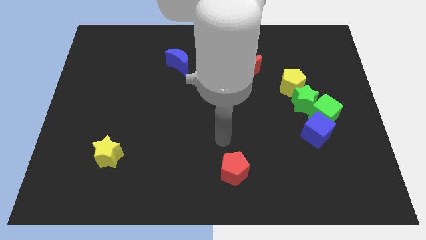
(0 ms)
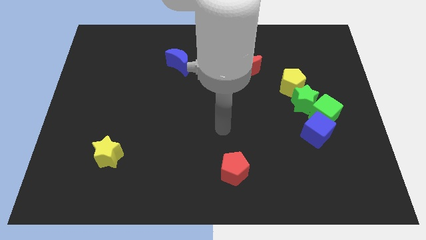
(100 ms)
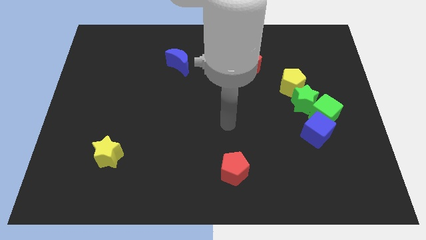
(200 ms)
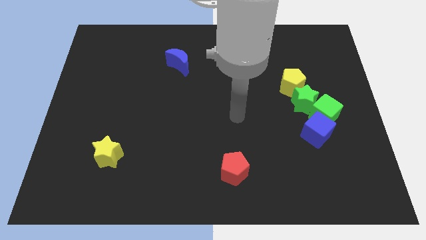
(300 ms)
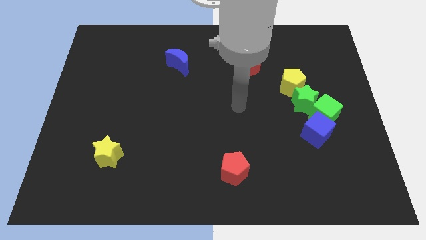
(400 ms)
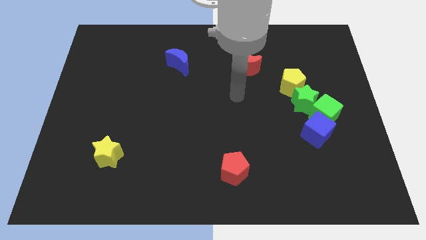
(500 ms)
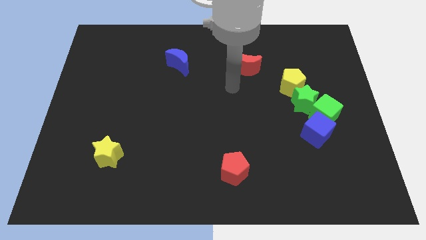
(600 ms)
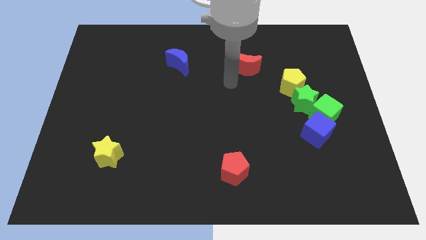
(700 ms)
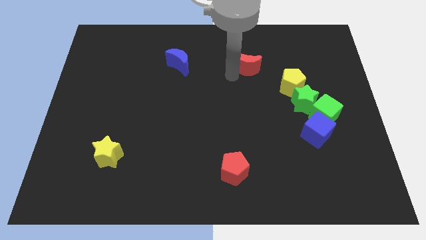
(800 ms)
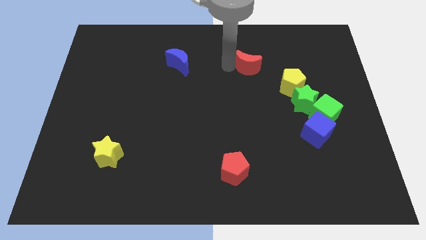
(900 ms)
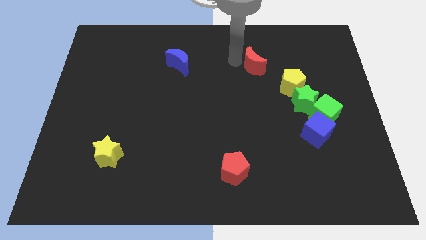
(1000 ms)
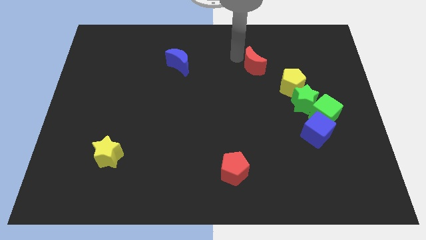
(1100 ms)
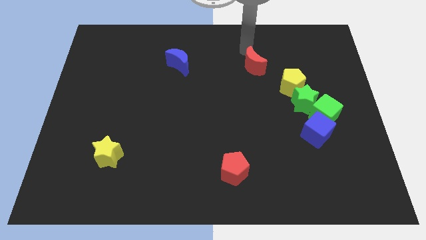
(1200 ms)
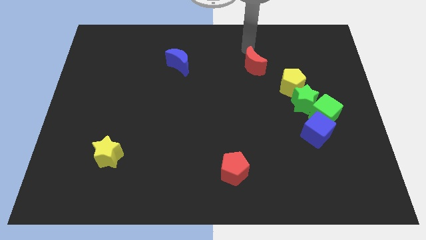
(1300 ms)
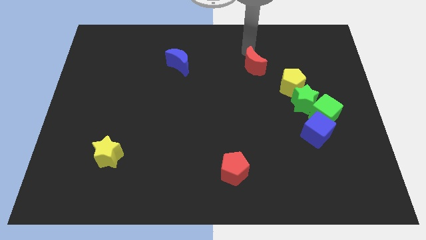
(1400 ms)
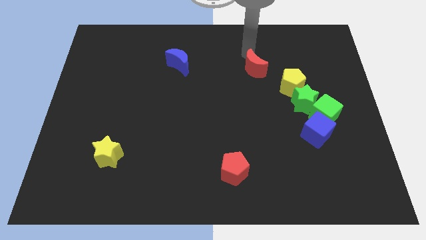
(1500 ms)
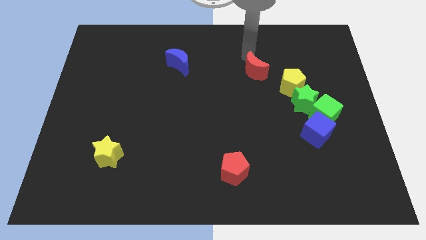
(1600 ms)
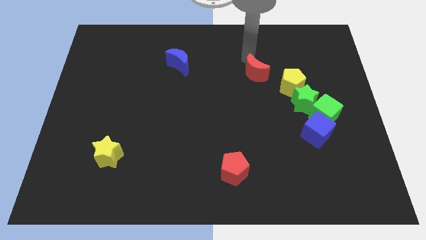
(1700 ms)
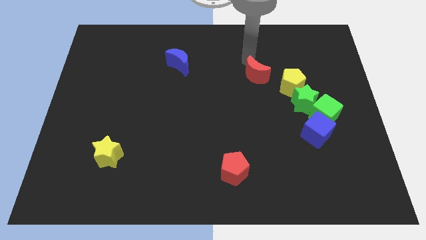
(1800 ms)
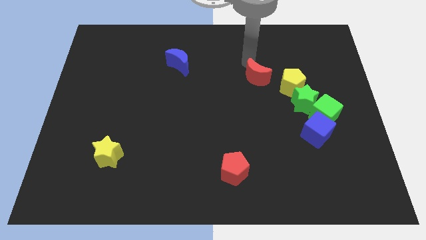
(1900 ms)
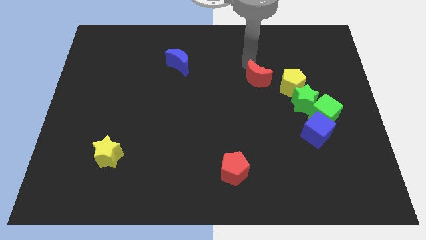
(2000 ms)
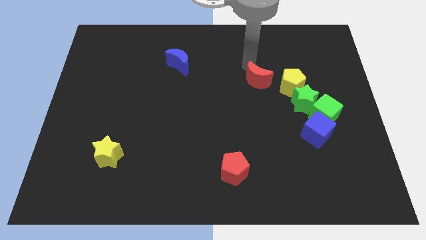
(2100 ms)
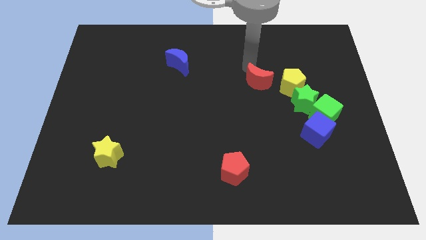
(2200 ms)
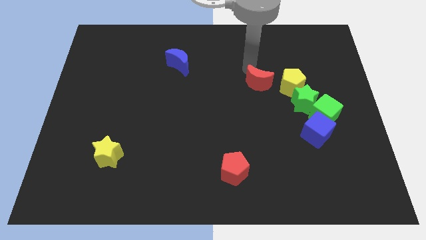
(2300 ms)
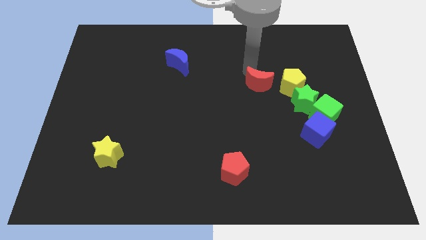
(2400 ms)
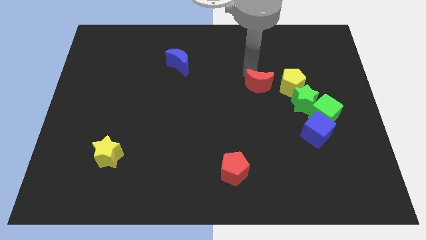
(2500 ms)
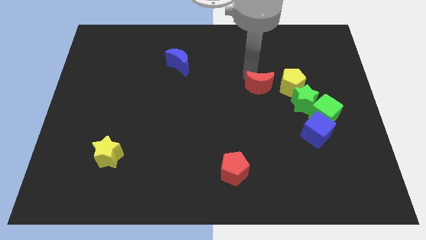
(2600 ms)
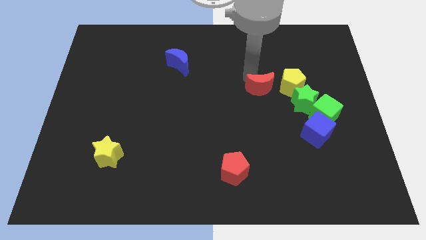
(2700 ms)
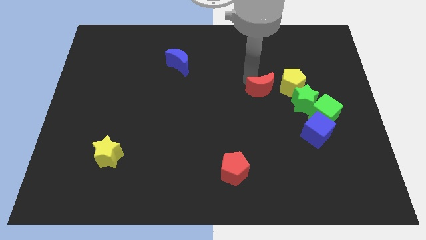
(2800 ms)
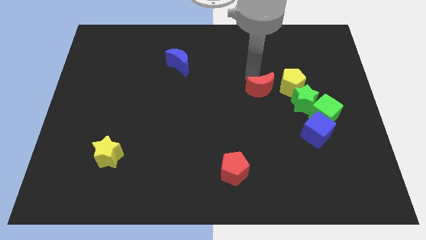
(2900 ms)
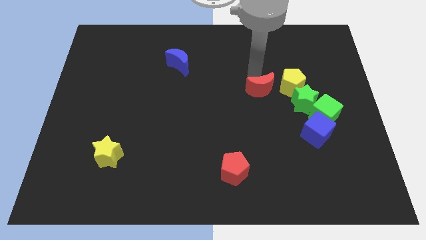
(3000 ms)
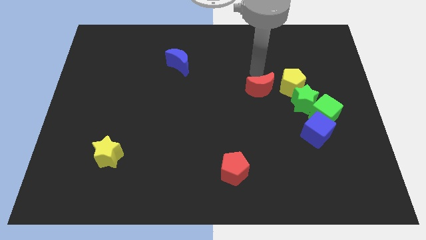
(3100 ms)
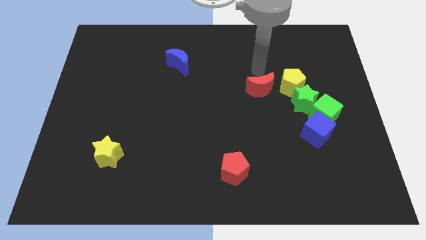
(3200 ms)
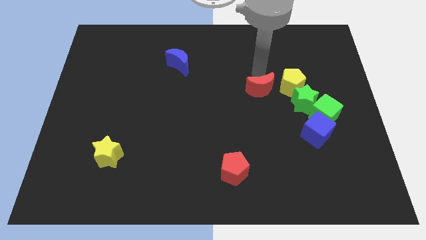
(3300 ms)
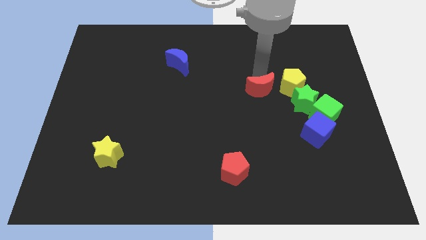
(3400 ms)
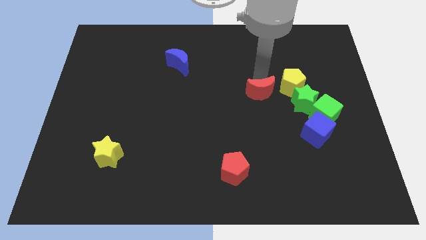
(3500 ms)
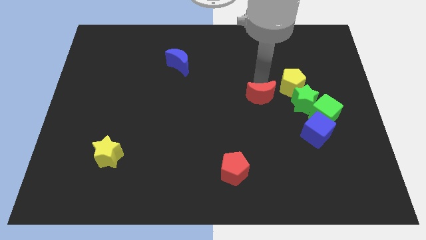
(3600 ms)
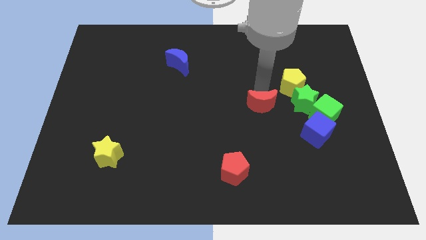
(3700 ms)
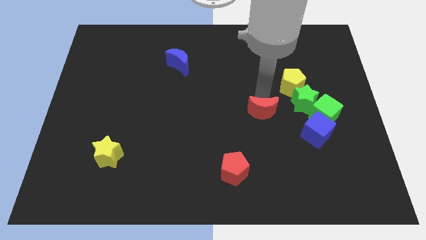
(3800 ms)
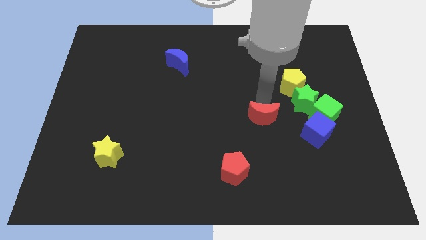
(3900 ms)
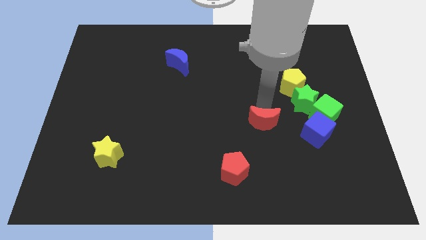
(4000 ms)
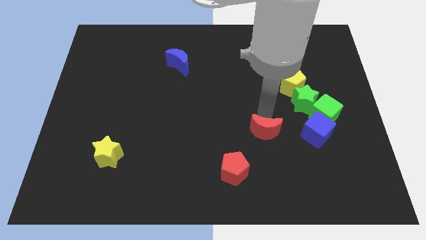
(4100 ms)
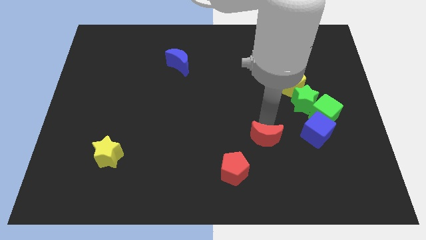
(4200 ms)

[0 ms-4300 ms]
slide the red moon downwards

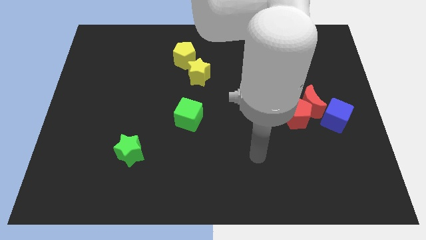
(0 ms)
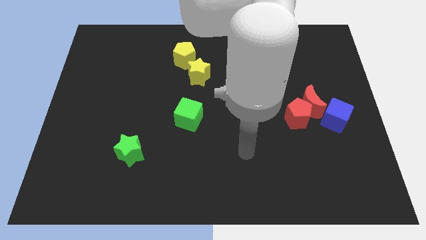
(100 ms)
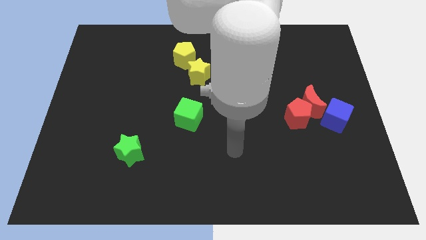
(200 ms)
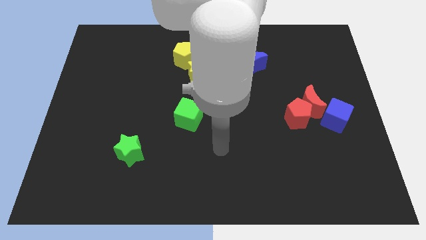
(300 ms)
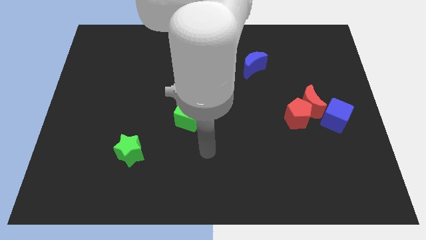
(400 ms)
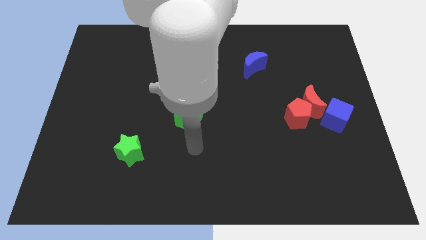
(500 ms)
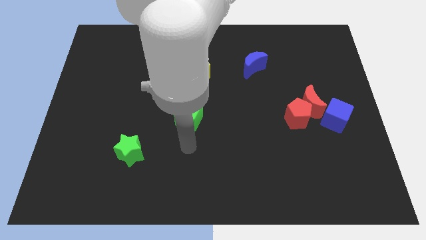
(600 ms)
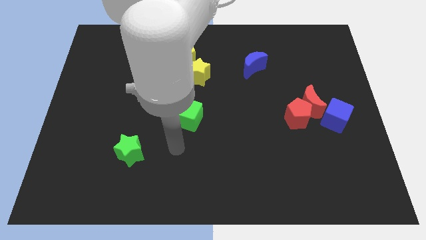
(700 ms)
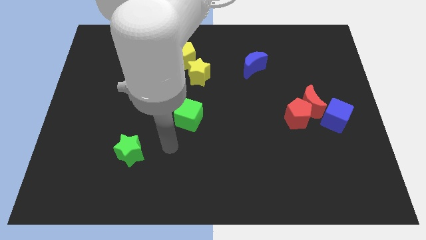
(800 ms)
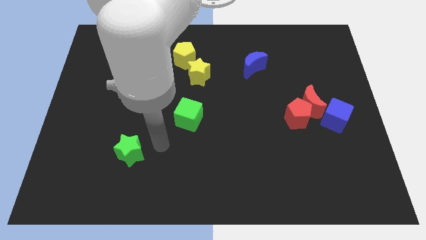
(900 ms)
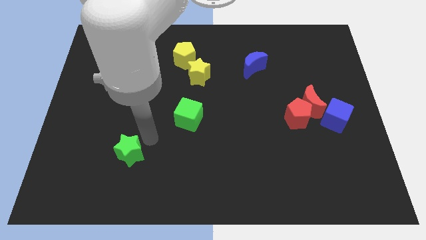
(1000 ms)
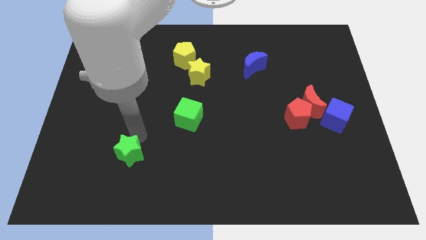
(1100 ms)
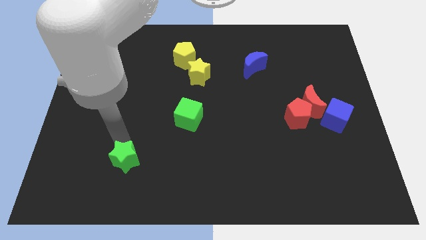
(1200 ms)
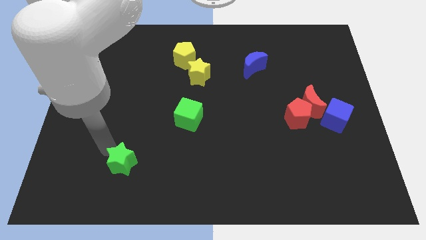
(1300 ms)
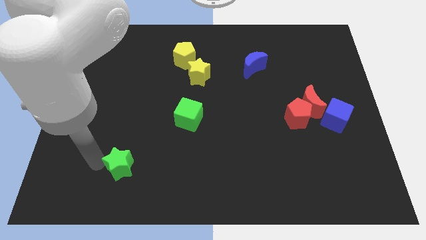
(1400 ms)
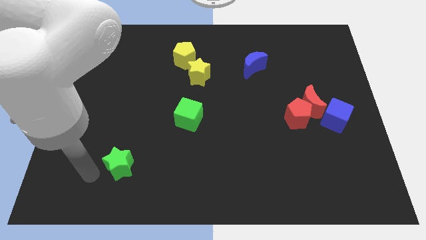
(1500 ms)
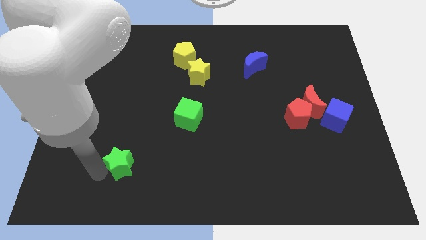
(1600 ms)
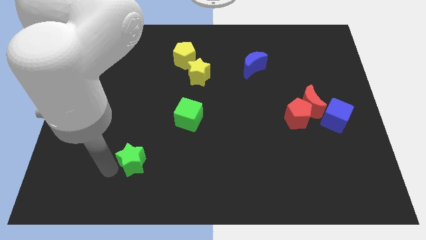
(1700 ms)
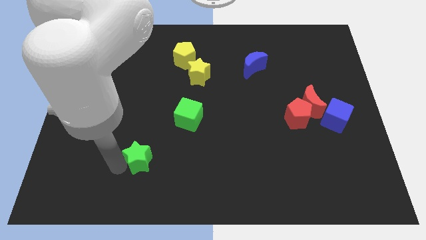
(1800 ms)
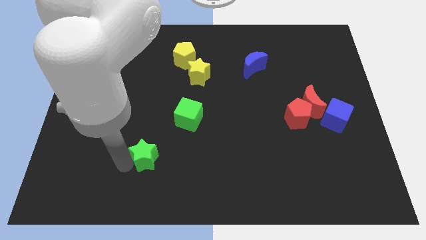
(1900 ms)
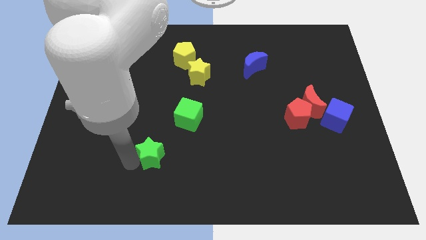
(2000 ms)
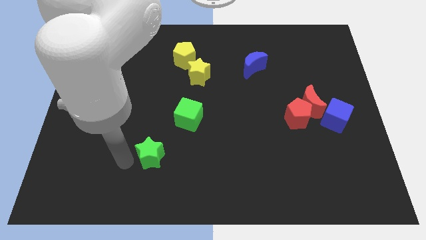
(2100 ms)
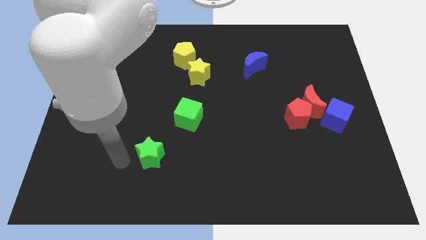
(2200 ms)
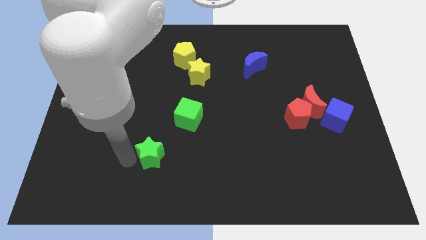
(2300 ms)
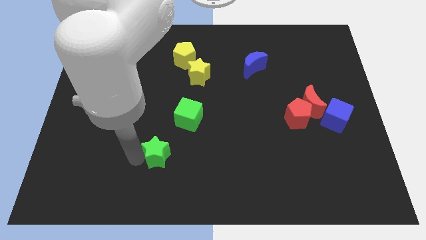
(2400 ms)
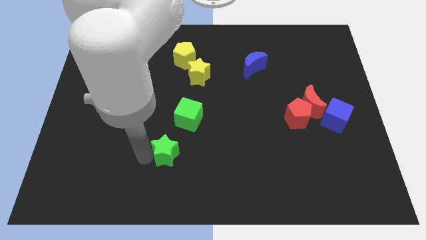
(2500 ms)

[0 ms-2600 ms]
push the green star to the right a little bit

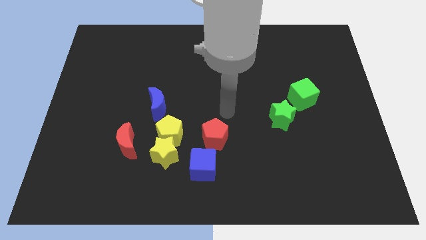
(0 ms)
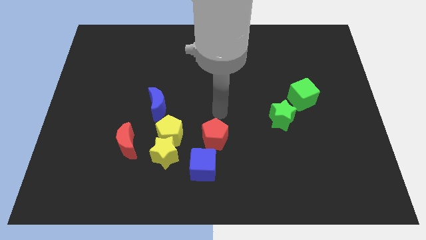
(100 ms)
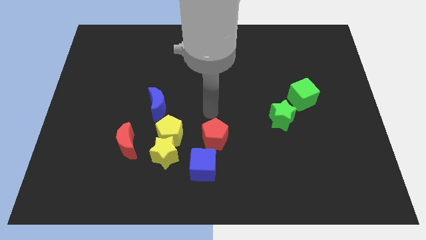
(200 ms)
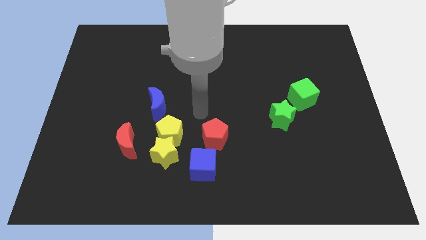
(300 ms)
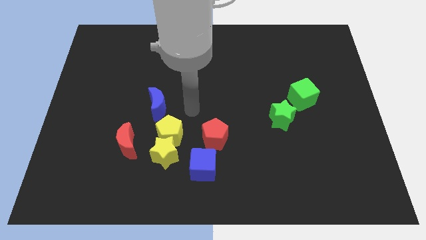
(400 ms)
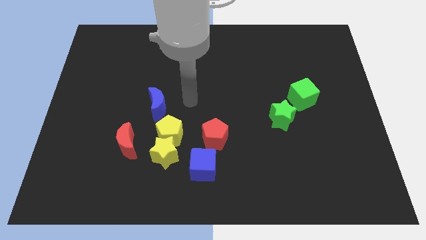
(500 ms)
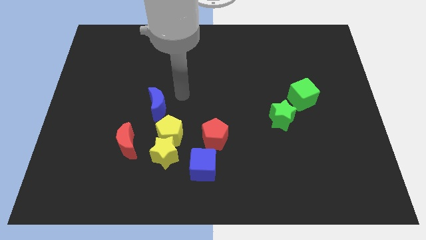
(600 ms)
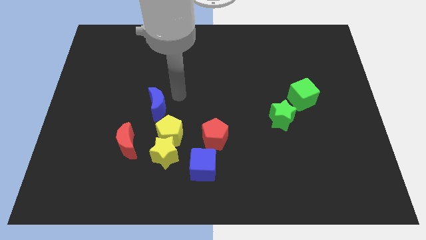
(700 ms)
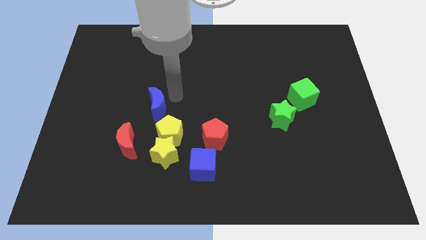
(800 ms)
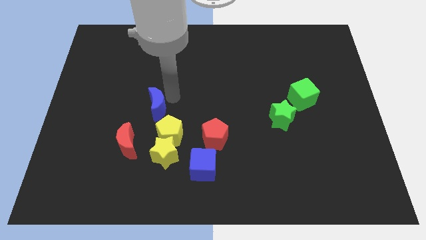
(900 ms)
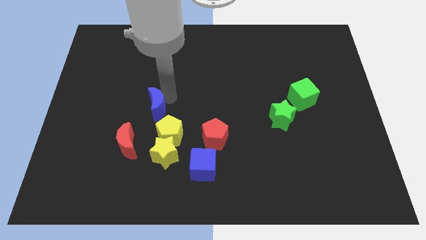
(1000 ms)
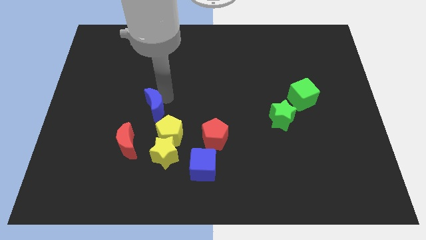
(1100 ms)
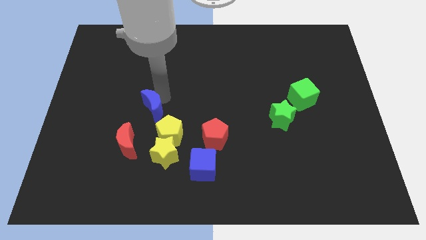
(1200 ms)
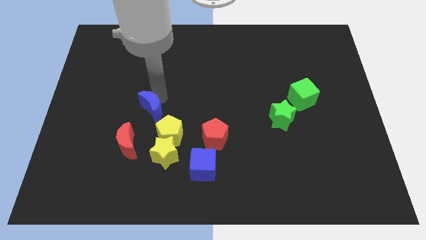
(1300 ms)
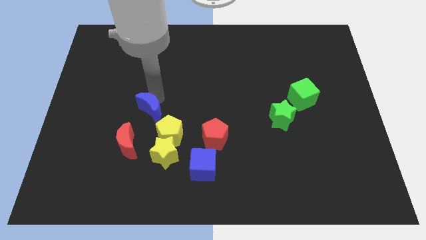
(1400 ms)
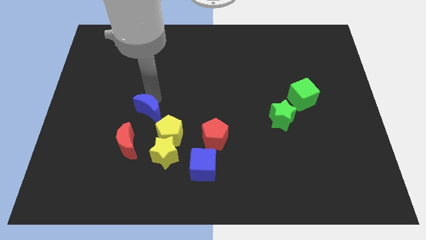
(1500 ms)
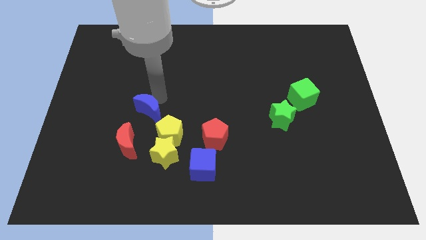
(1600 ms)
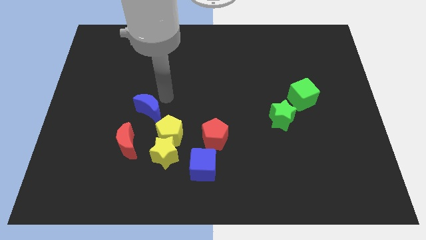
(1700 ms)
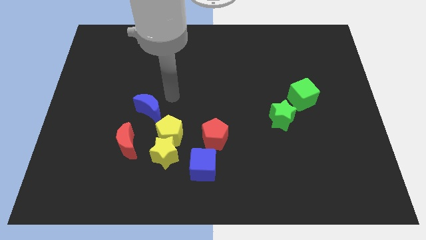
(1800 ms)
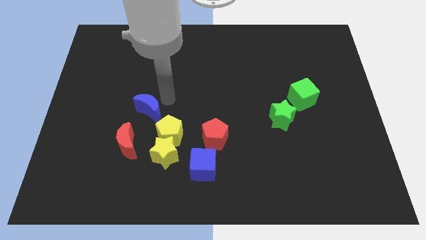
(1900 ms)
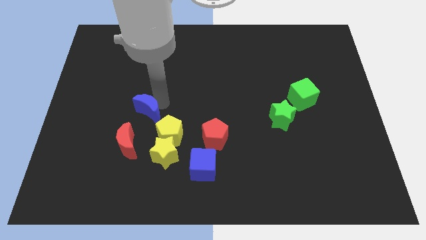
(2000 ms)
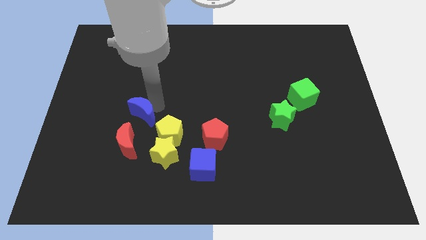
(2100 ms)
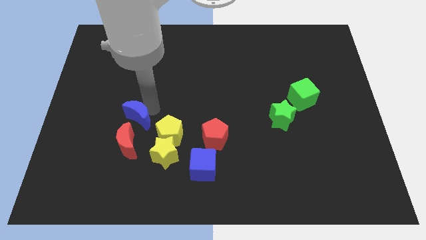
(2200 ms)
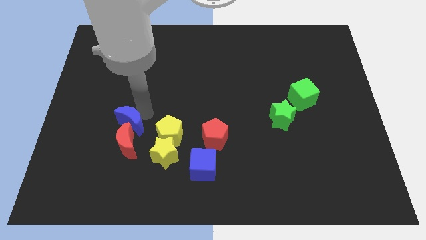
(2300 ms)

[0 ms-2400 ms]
move the blue moon a little bit diagonally downwards and left
